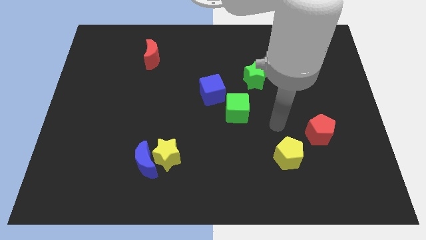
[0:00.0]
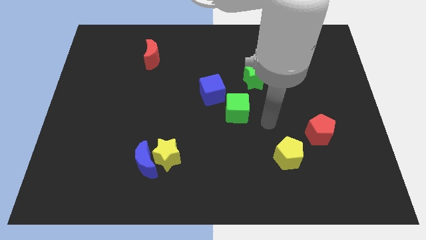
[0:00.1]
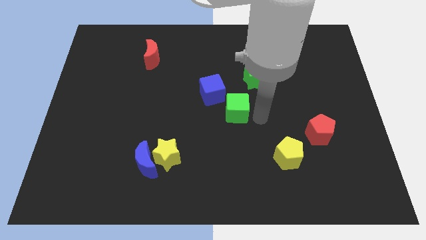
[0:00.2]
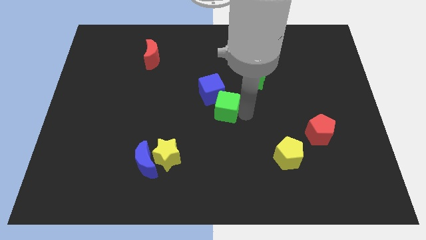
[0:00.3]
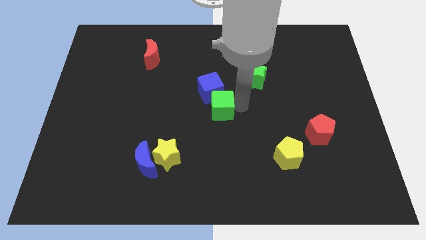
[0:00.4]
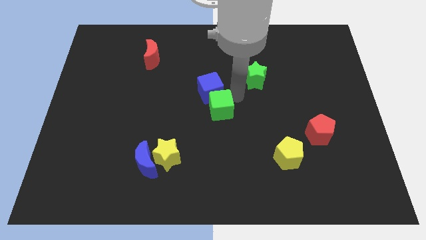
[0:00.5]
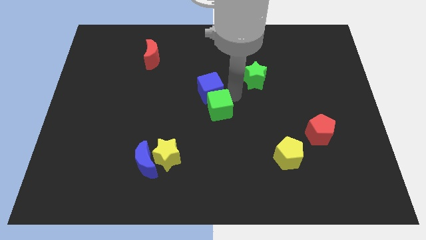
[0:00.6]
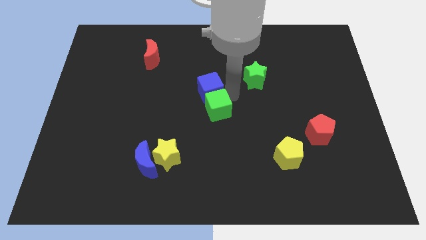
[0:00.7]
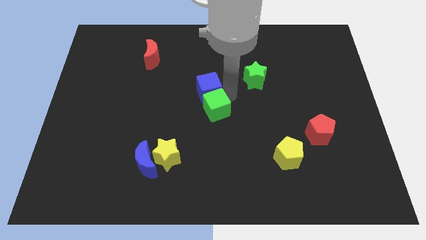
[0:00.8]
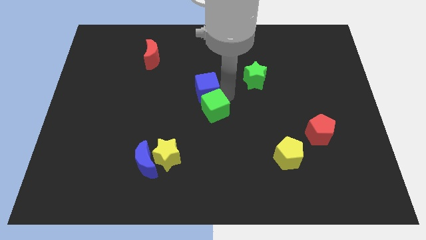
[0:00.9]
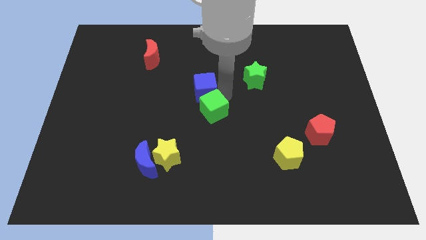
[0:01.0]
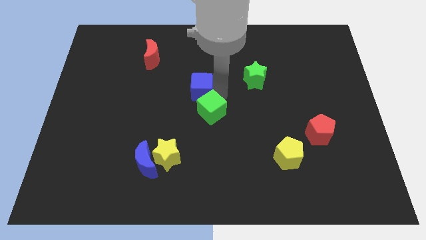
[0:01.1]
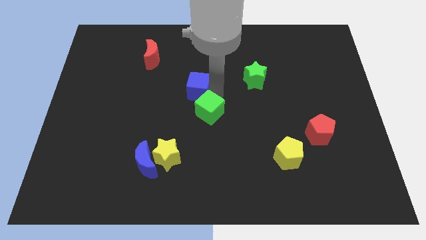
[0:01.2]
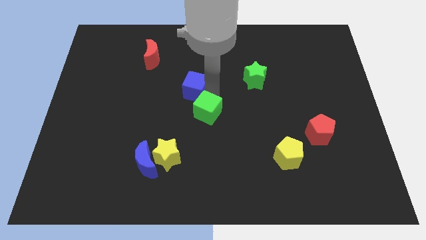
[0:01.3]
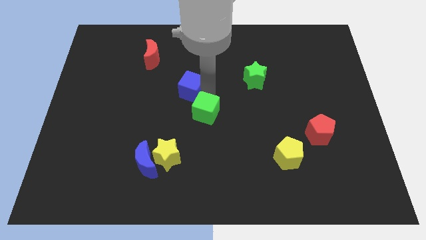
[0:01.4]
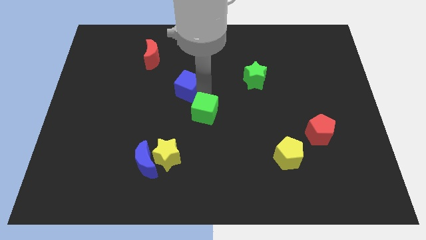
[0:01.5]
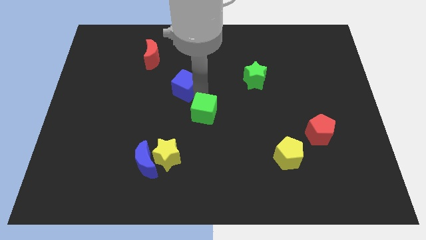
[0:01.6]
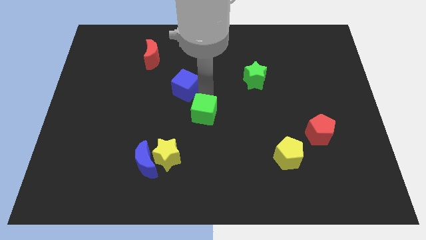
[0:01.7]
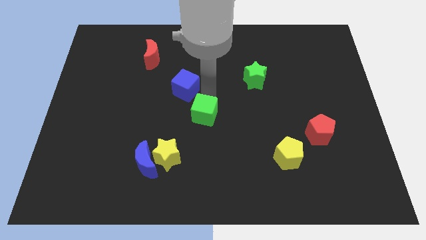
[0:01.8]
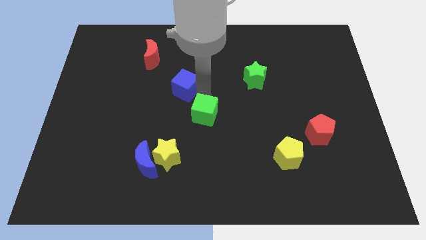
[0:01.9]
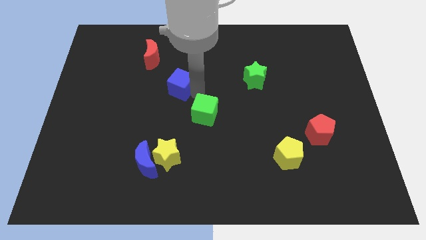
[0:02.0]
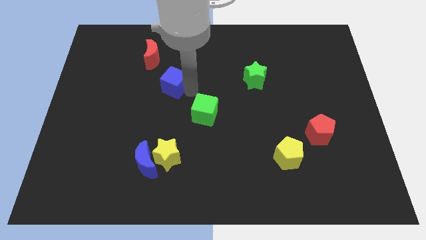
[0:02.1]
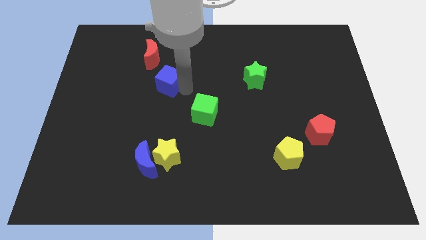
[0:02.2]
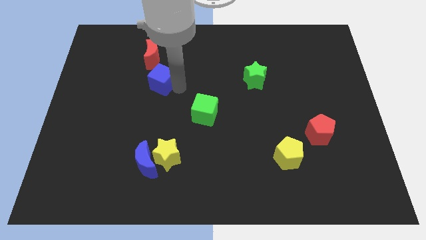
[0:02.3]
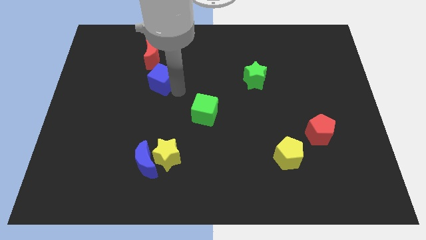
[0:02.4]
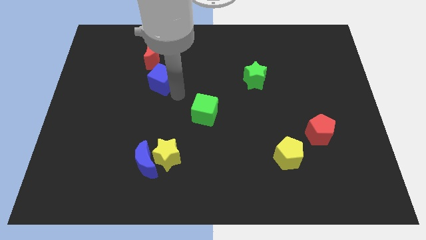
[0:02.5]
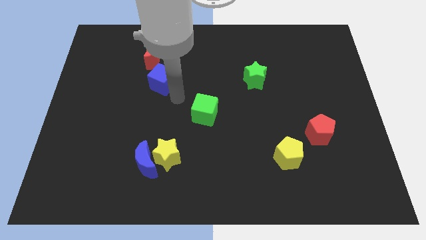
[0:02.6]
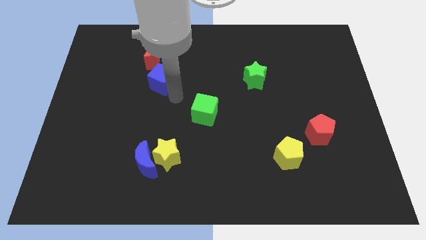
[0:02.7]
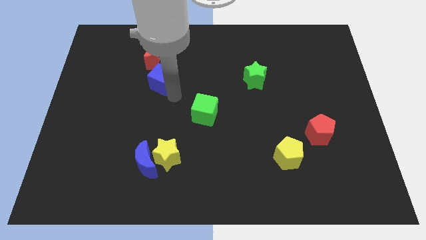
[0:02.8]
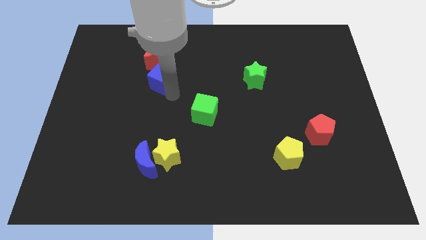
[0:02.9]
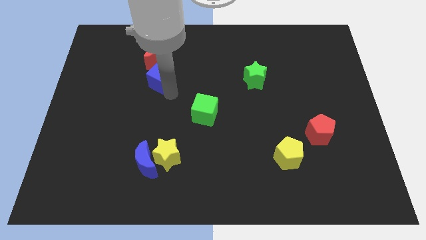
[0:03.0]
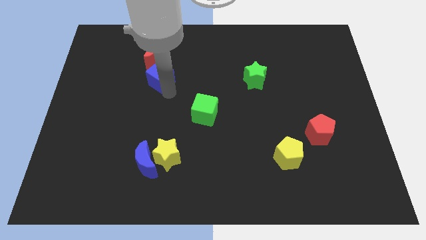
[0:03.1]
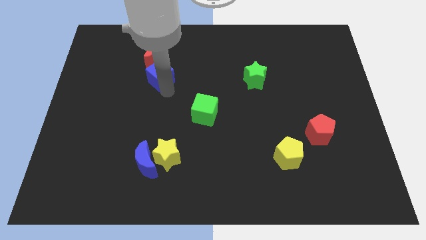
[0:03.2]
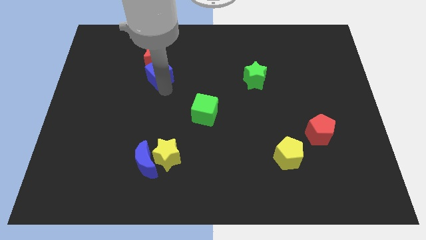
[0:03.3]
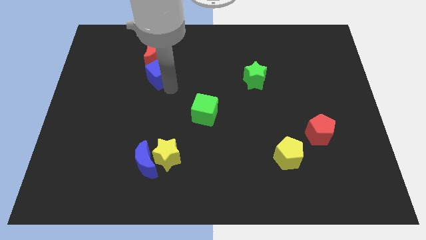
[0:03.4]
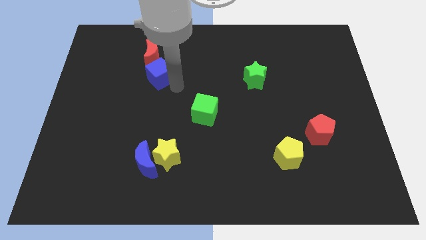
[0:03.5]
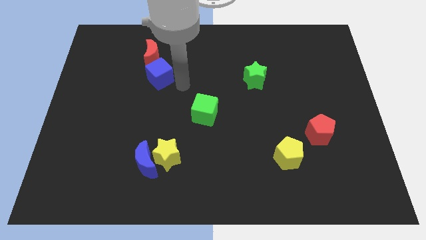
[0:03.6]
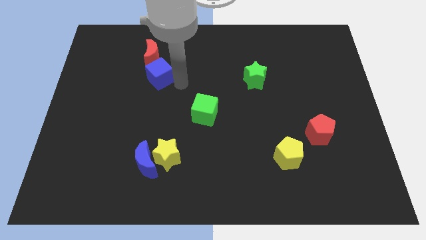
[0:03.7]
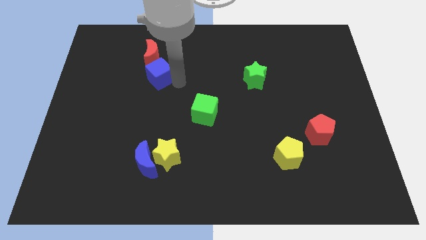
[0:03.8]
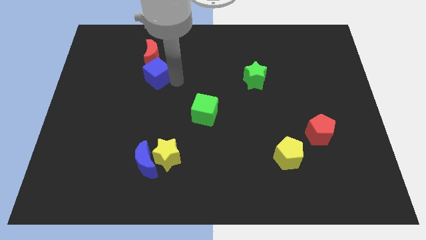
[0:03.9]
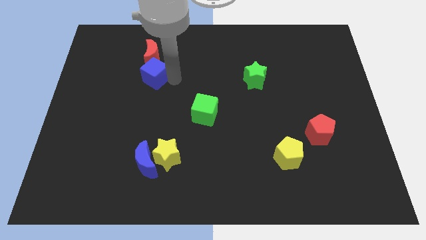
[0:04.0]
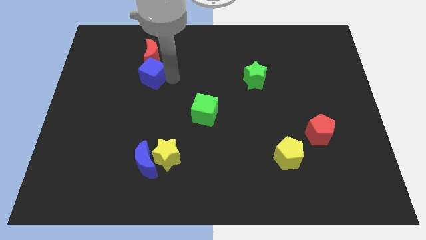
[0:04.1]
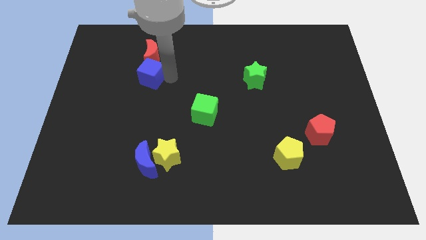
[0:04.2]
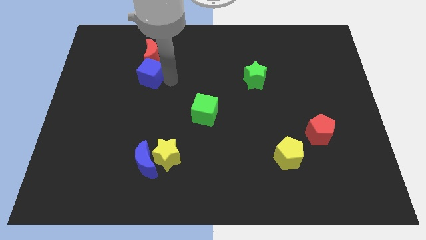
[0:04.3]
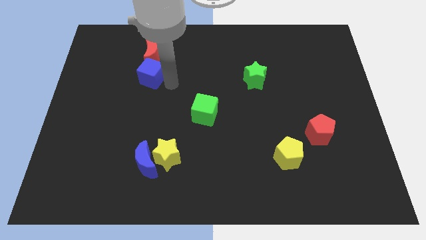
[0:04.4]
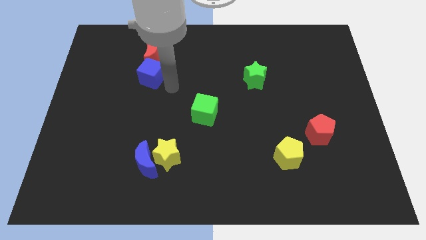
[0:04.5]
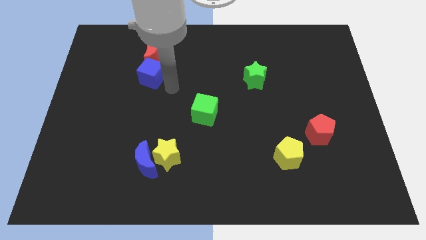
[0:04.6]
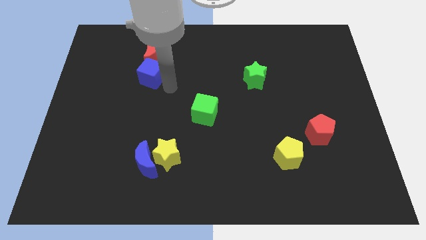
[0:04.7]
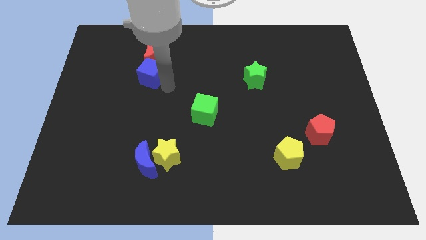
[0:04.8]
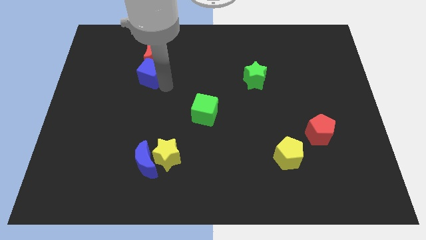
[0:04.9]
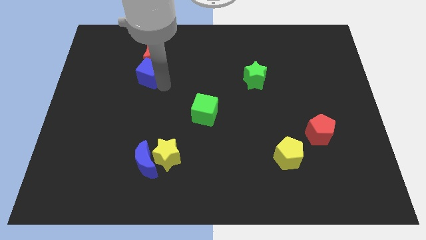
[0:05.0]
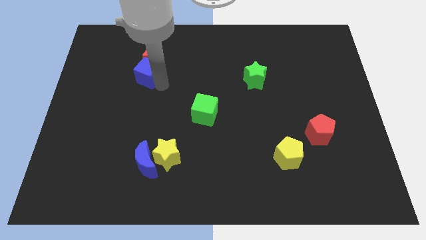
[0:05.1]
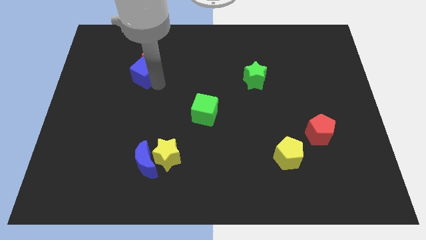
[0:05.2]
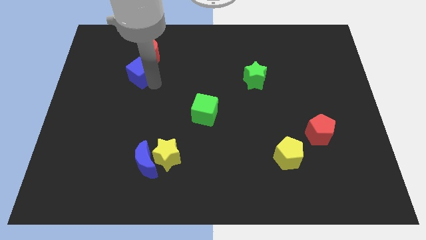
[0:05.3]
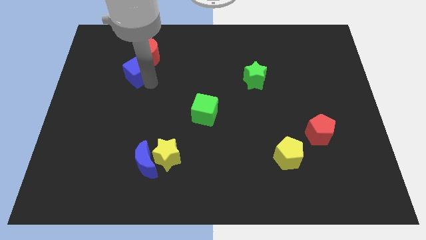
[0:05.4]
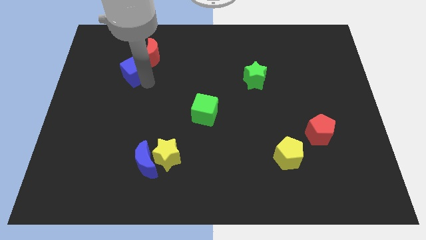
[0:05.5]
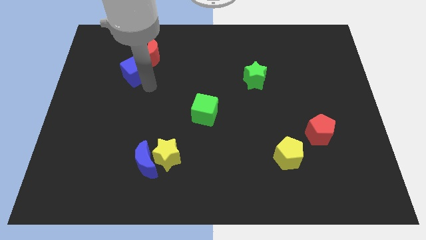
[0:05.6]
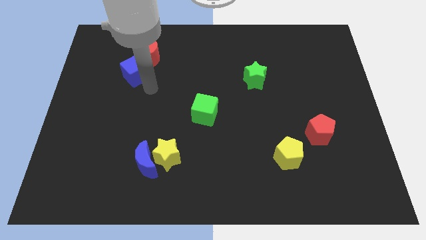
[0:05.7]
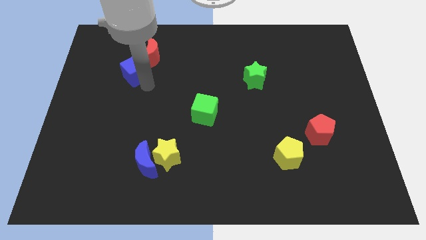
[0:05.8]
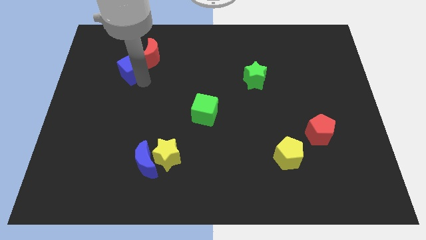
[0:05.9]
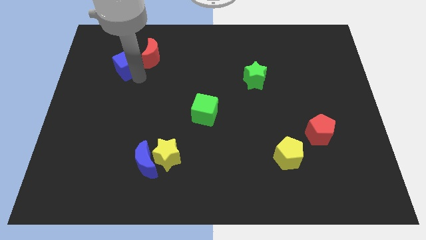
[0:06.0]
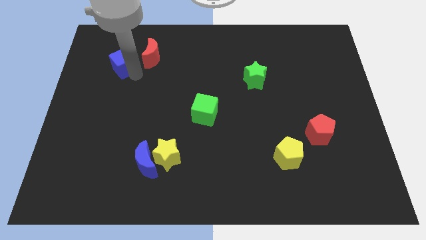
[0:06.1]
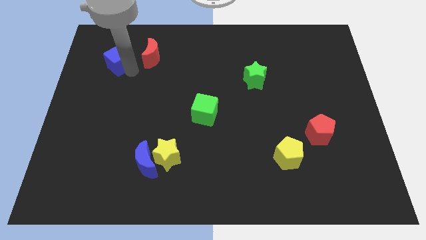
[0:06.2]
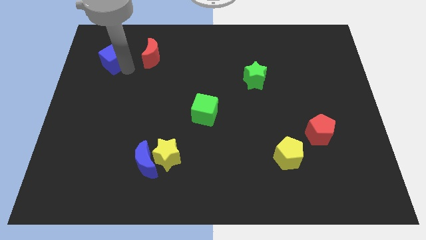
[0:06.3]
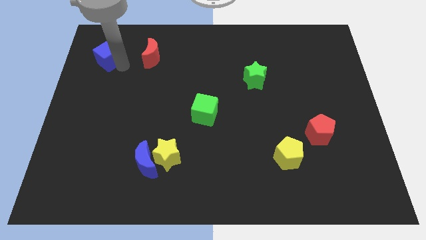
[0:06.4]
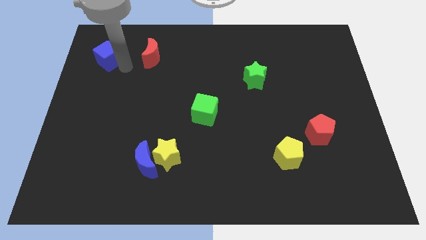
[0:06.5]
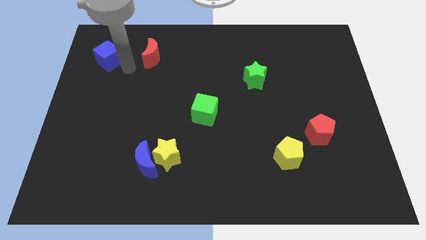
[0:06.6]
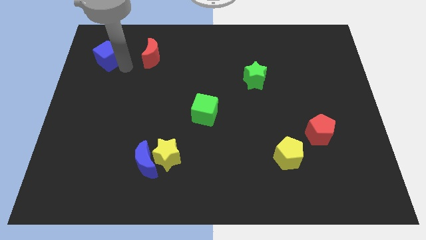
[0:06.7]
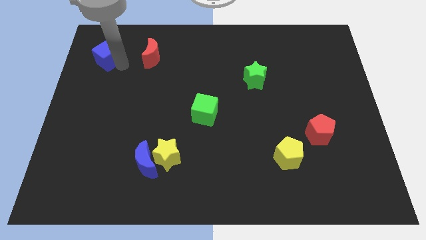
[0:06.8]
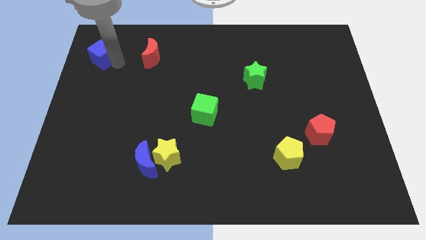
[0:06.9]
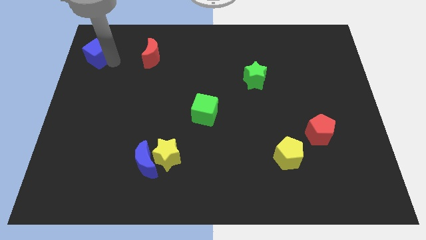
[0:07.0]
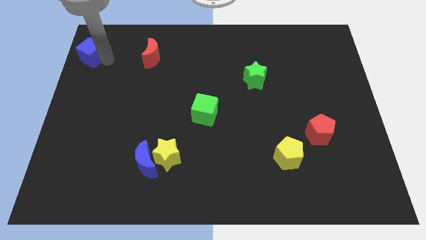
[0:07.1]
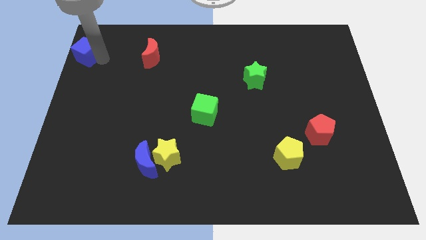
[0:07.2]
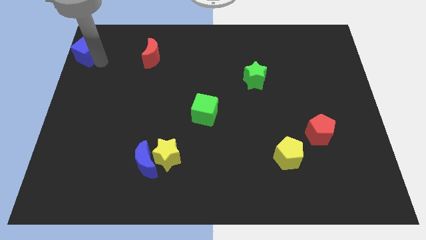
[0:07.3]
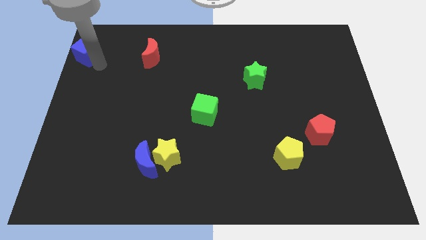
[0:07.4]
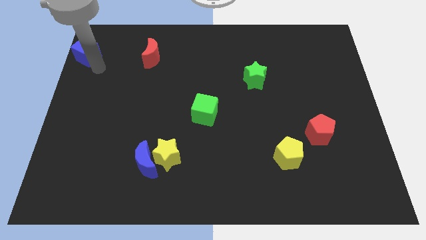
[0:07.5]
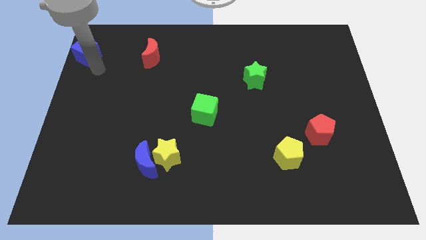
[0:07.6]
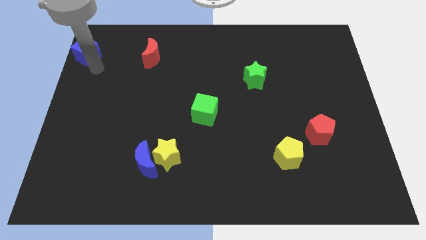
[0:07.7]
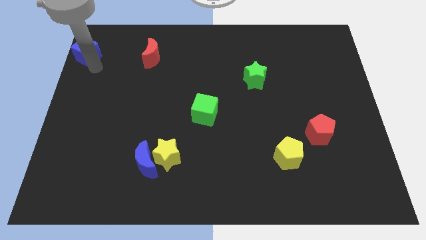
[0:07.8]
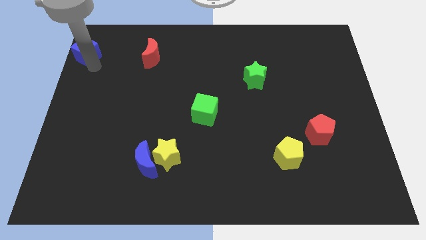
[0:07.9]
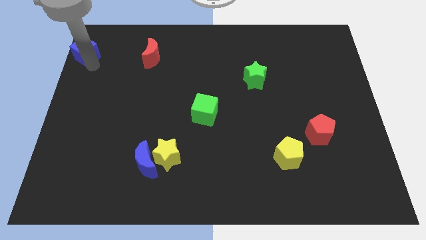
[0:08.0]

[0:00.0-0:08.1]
push the blue cube to the top left of the board
